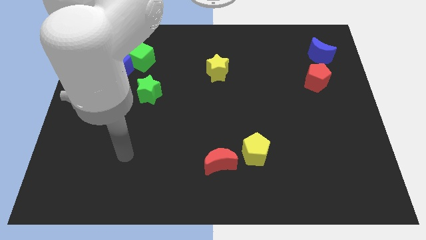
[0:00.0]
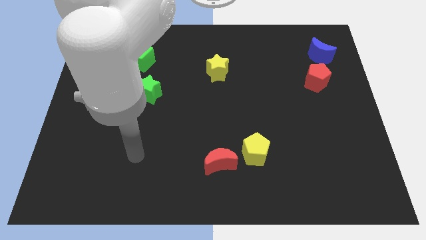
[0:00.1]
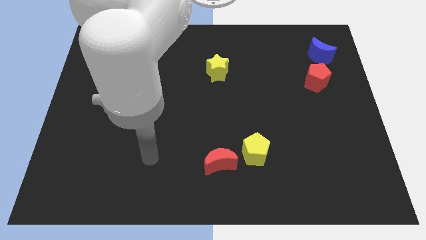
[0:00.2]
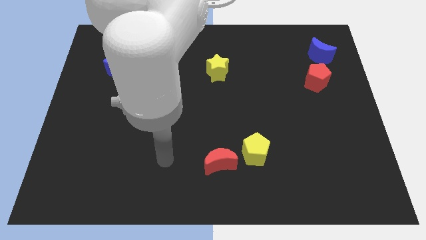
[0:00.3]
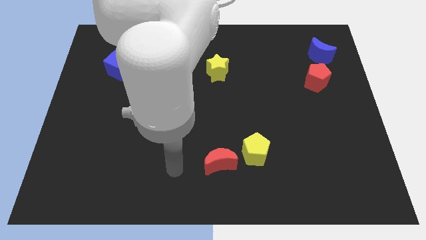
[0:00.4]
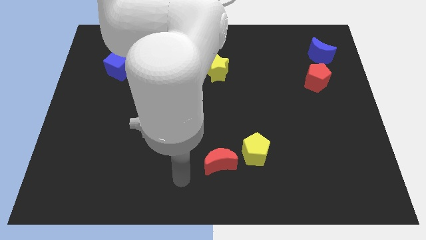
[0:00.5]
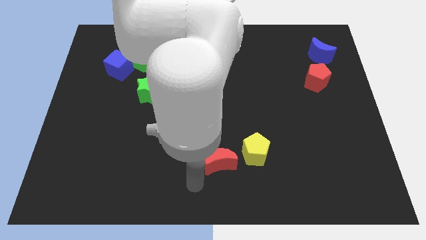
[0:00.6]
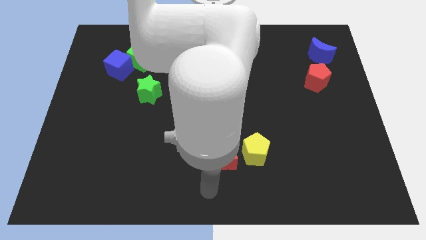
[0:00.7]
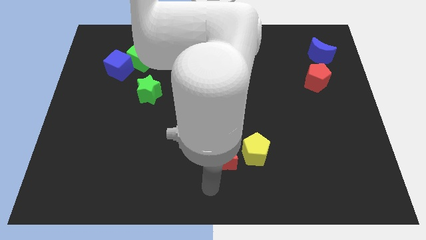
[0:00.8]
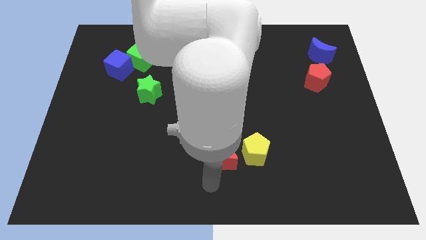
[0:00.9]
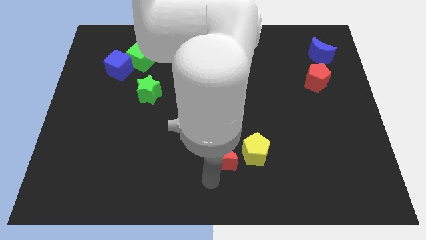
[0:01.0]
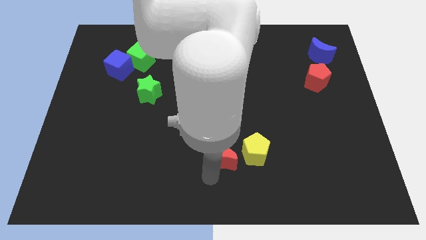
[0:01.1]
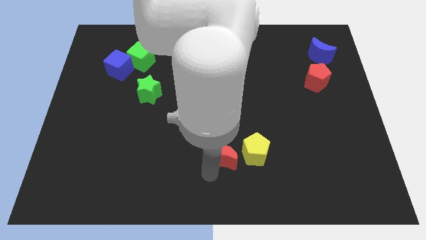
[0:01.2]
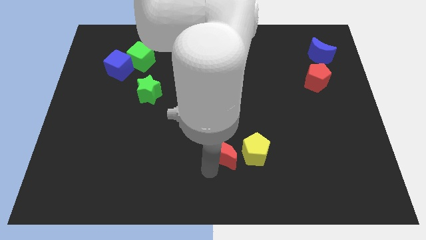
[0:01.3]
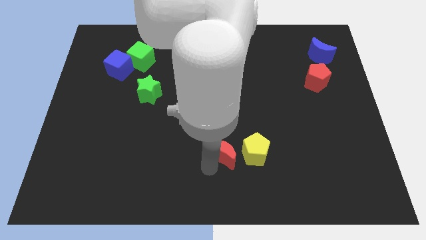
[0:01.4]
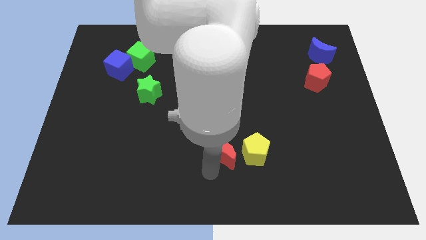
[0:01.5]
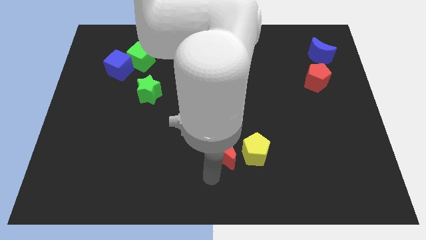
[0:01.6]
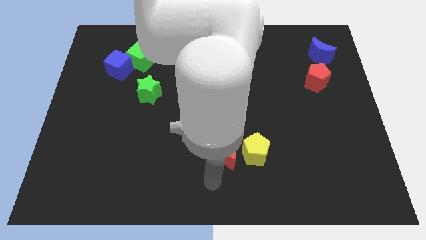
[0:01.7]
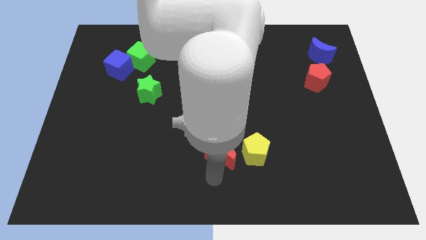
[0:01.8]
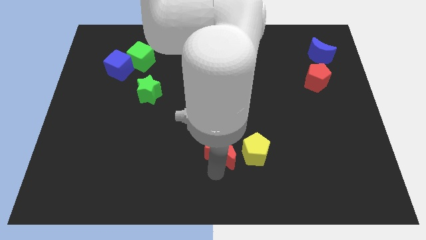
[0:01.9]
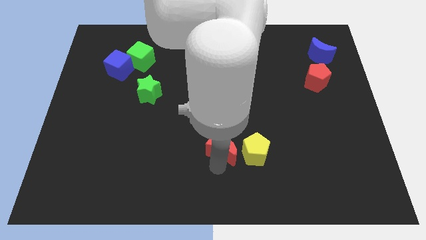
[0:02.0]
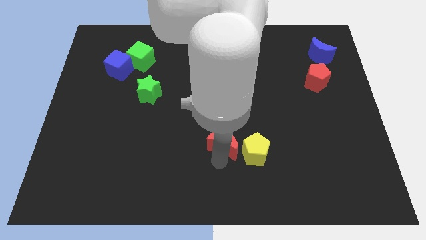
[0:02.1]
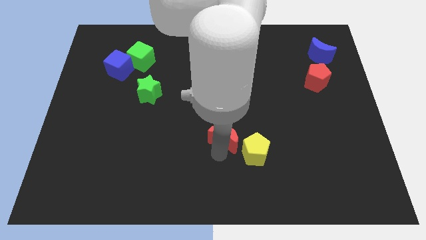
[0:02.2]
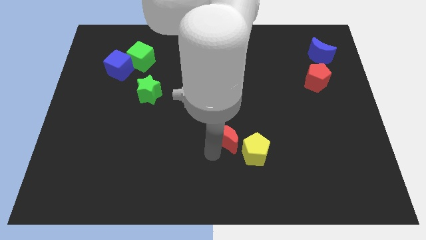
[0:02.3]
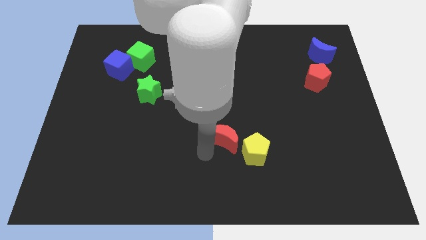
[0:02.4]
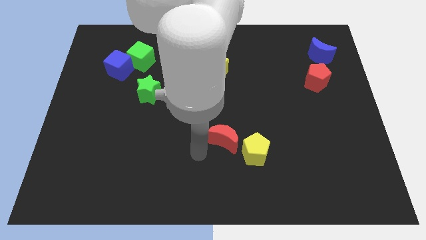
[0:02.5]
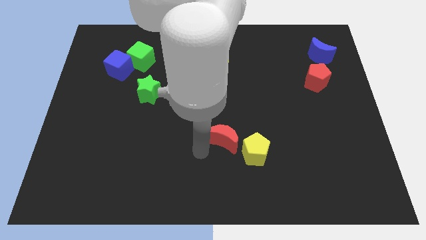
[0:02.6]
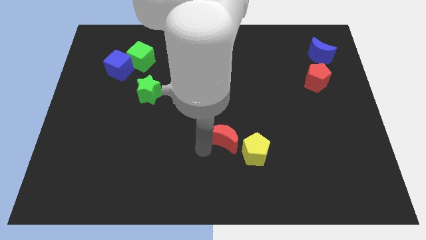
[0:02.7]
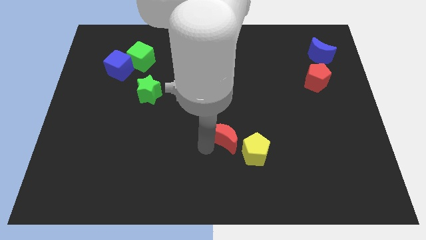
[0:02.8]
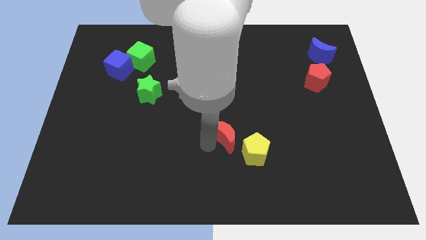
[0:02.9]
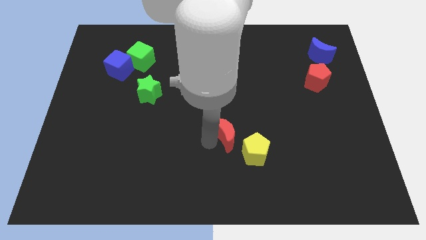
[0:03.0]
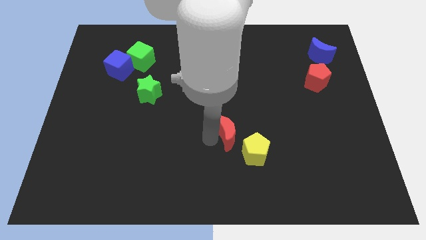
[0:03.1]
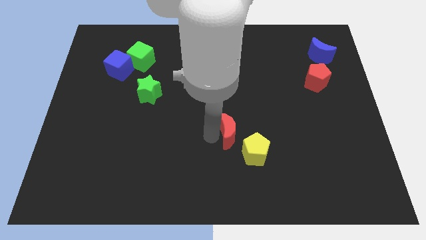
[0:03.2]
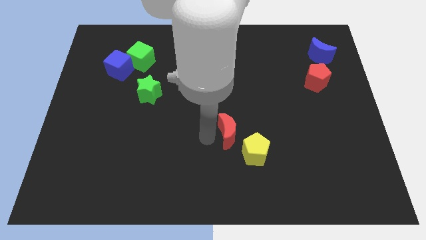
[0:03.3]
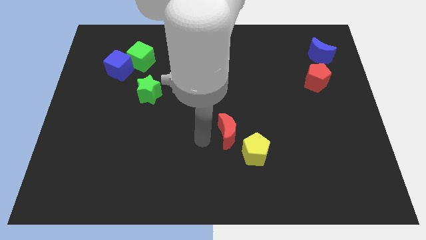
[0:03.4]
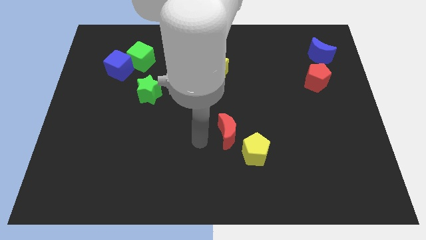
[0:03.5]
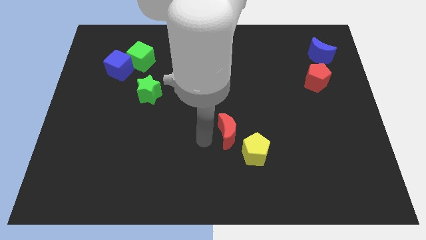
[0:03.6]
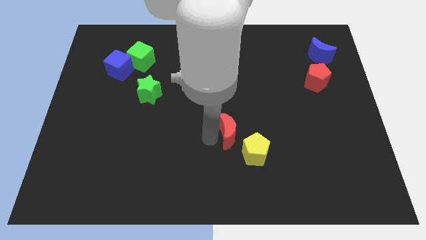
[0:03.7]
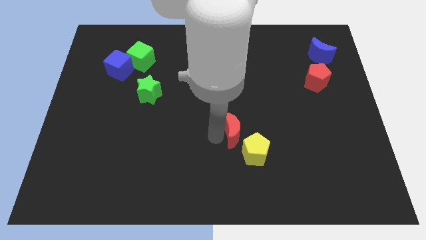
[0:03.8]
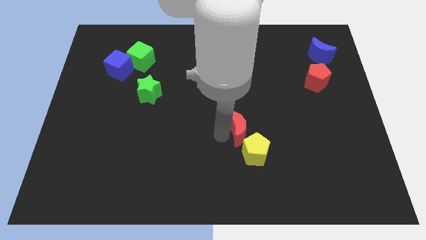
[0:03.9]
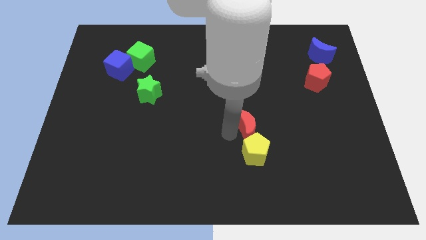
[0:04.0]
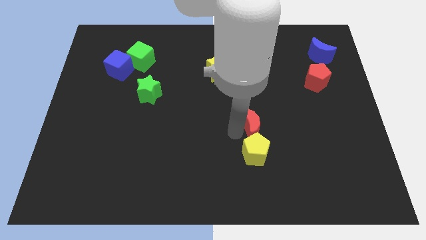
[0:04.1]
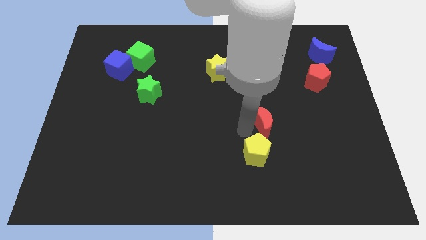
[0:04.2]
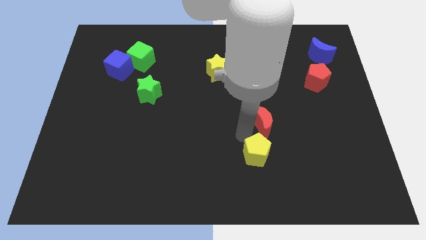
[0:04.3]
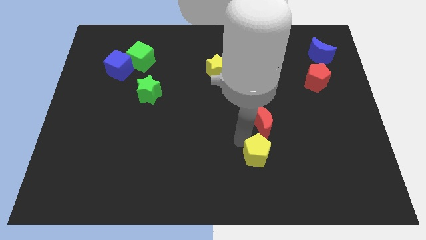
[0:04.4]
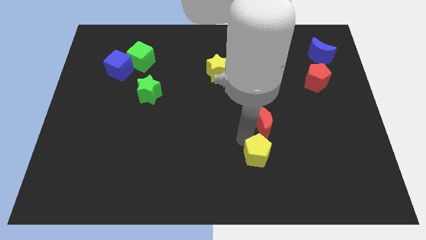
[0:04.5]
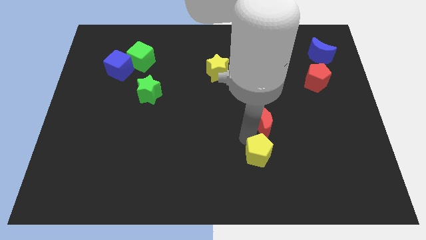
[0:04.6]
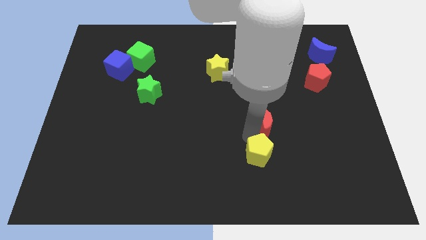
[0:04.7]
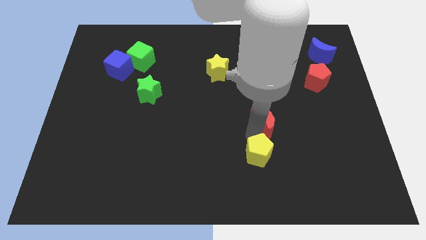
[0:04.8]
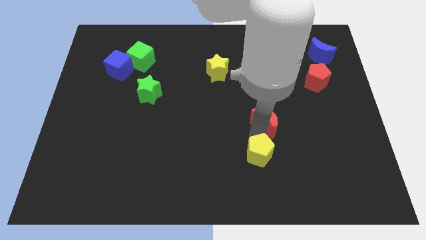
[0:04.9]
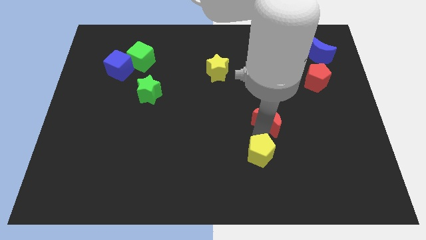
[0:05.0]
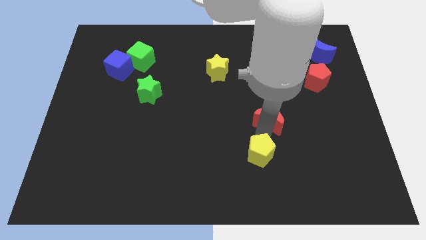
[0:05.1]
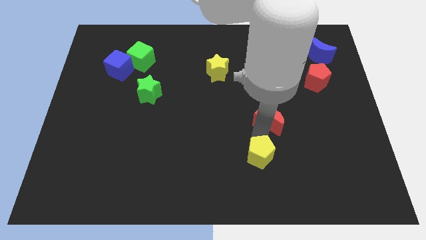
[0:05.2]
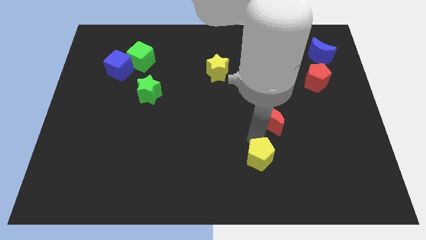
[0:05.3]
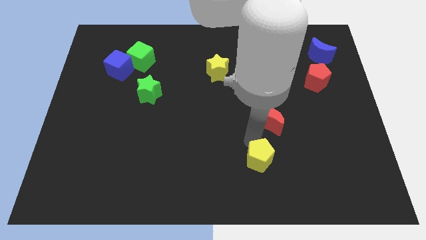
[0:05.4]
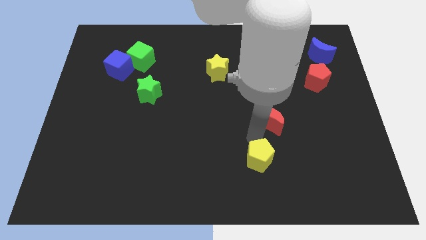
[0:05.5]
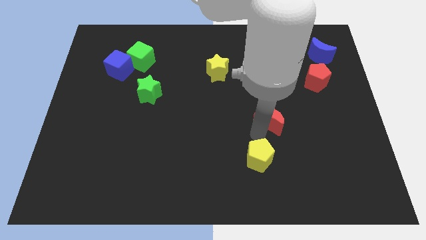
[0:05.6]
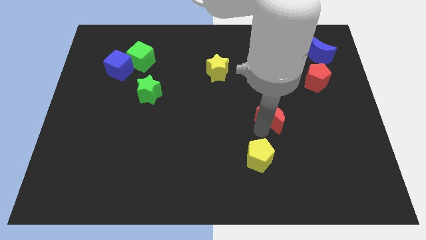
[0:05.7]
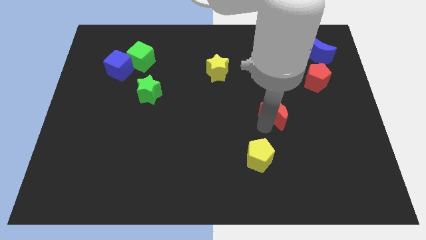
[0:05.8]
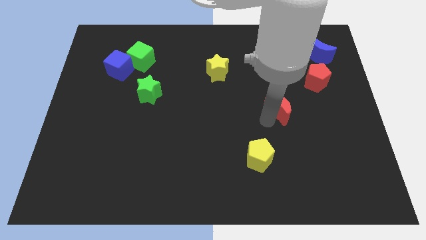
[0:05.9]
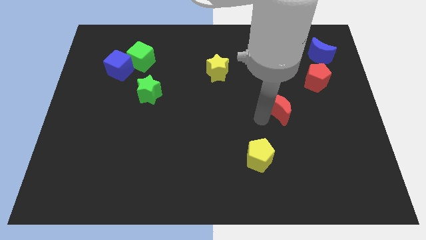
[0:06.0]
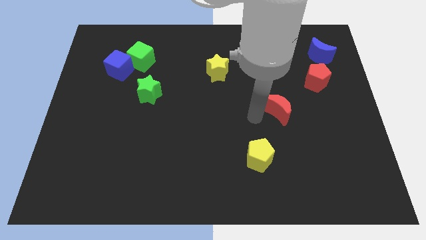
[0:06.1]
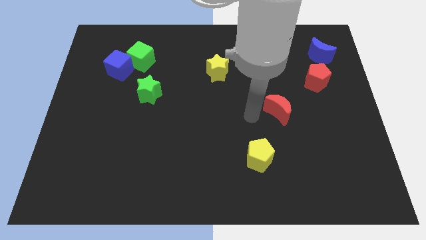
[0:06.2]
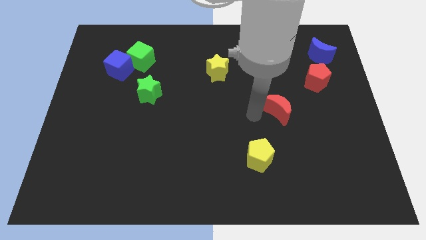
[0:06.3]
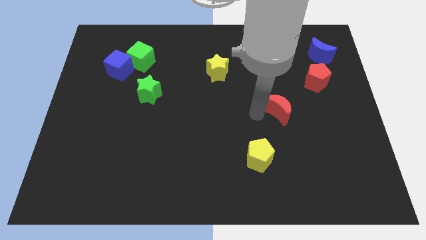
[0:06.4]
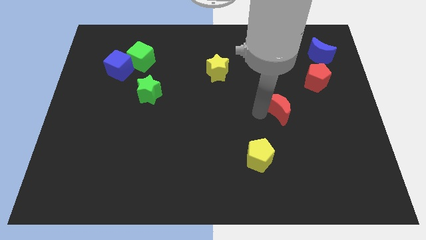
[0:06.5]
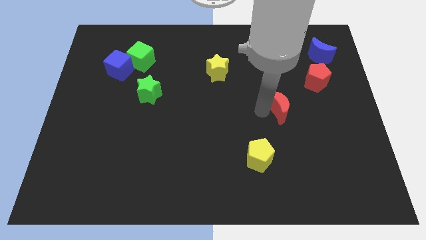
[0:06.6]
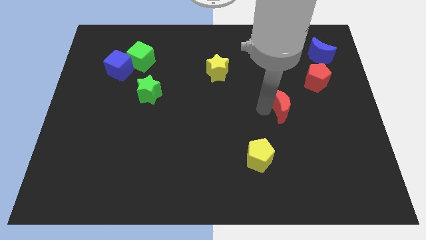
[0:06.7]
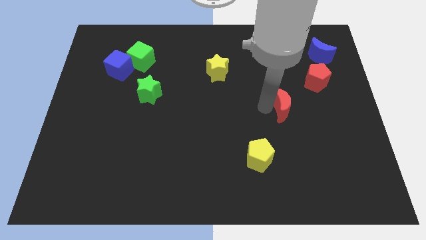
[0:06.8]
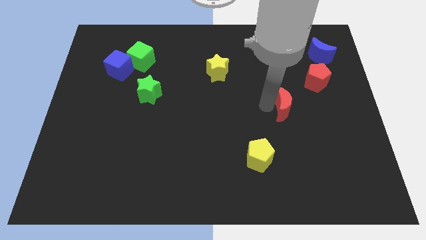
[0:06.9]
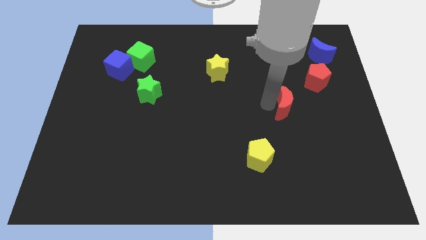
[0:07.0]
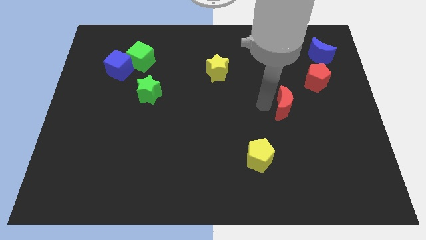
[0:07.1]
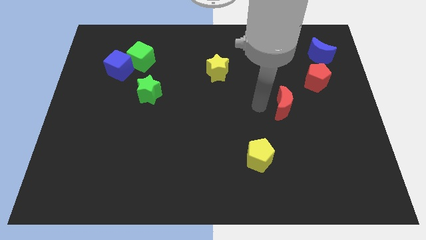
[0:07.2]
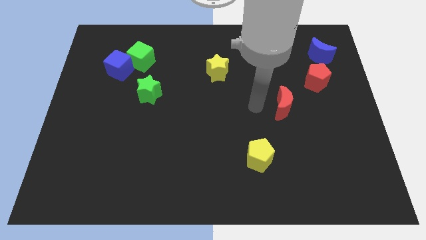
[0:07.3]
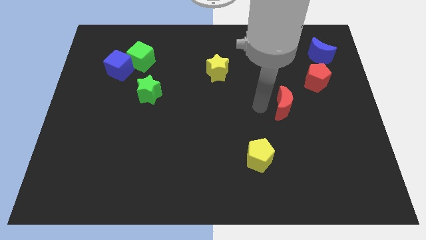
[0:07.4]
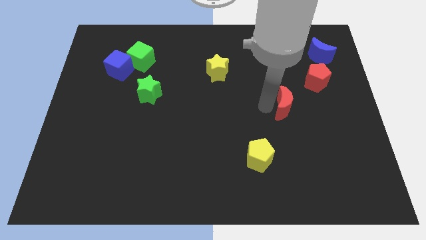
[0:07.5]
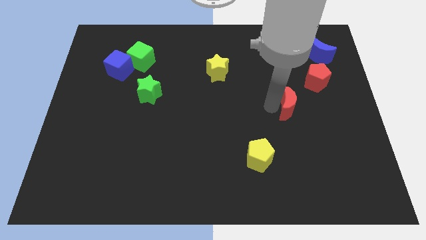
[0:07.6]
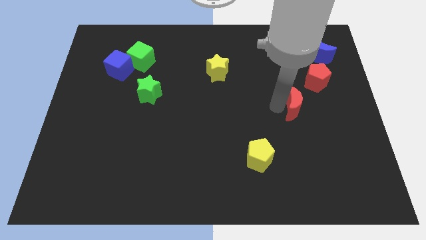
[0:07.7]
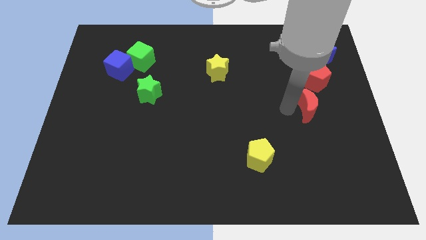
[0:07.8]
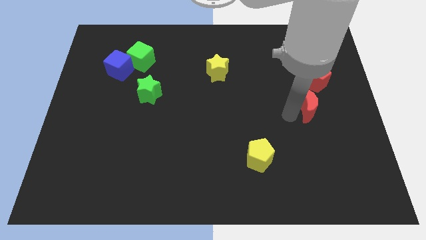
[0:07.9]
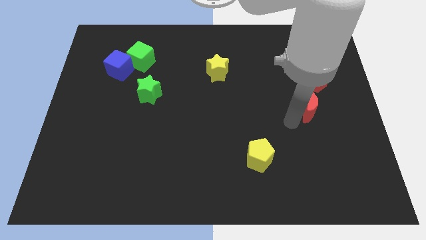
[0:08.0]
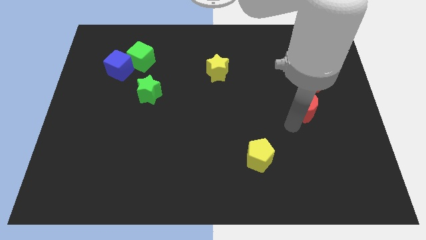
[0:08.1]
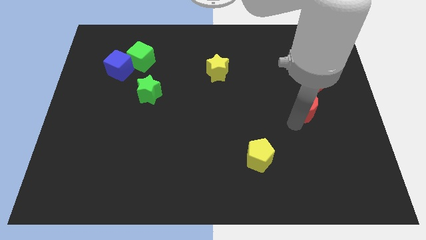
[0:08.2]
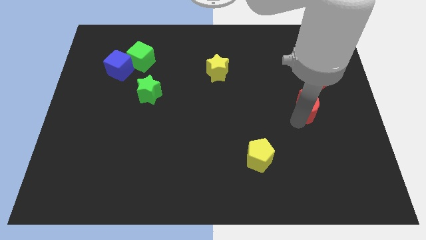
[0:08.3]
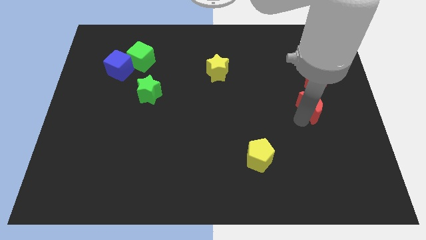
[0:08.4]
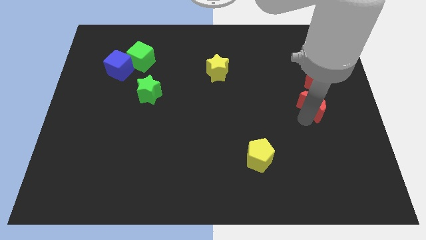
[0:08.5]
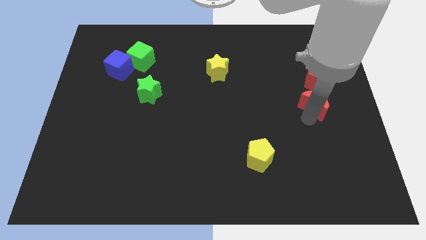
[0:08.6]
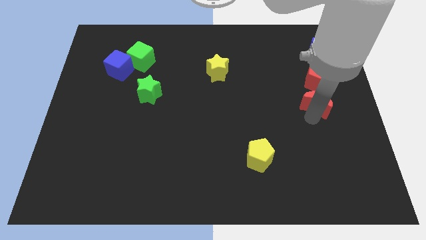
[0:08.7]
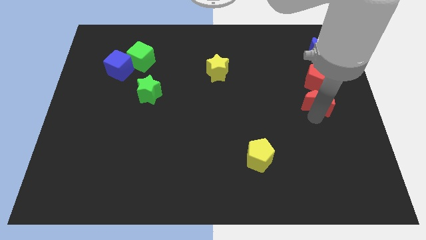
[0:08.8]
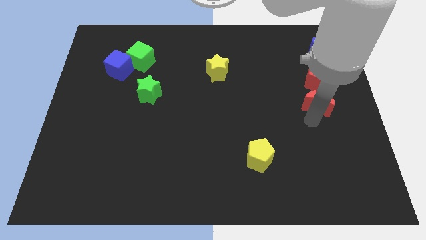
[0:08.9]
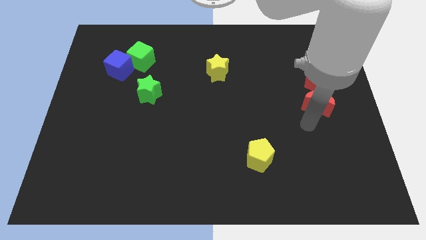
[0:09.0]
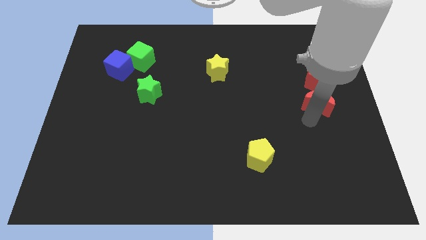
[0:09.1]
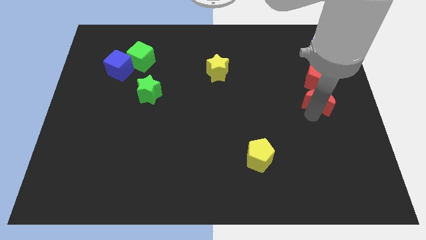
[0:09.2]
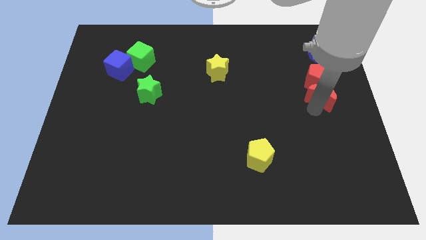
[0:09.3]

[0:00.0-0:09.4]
slide the red moon to the bottom of the blue moon
